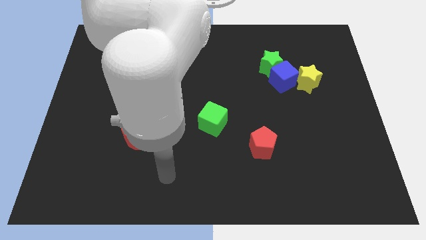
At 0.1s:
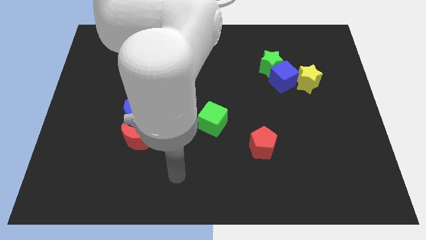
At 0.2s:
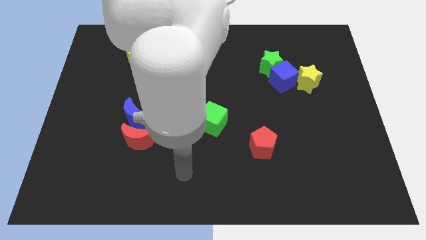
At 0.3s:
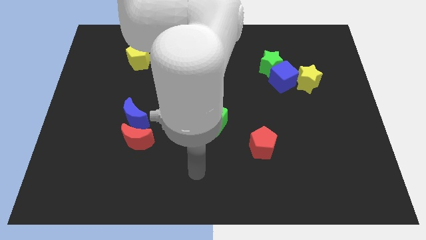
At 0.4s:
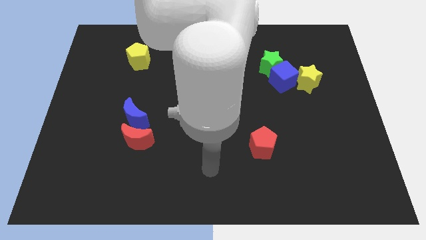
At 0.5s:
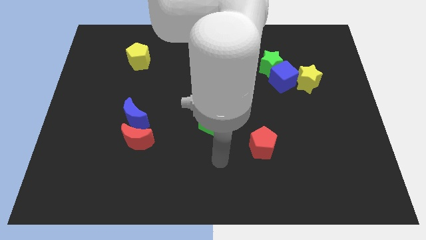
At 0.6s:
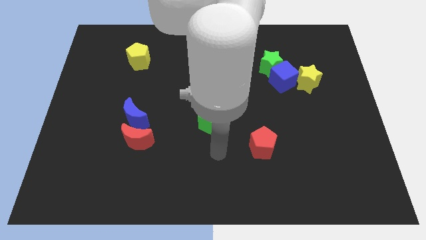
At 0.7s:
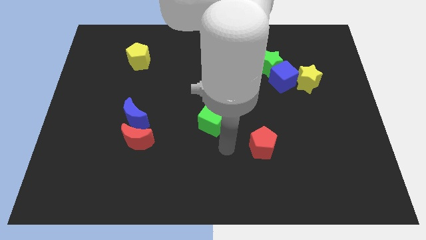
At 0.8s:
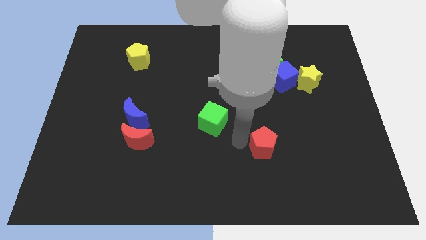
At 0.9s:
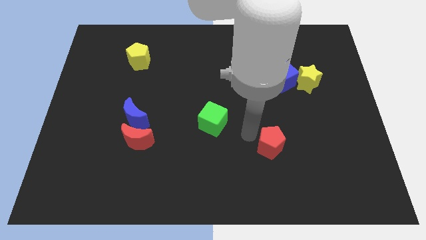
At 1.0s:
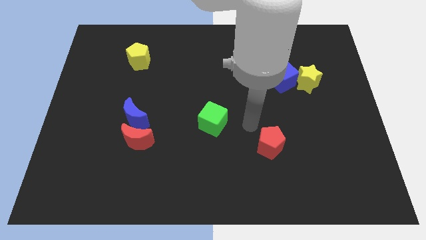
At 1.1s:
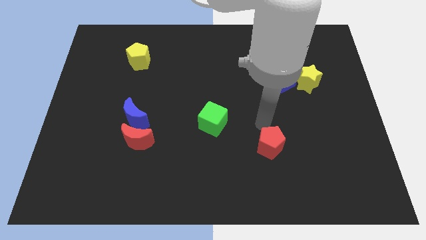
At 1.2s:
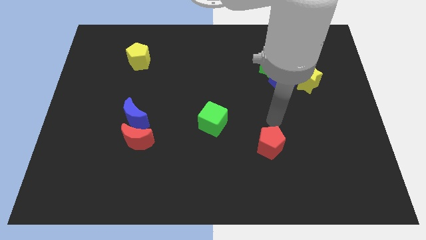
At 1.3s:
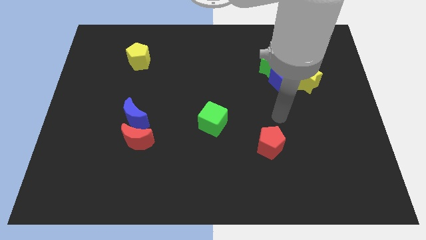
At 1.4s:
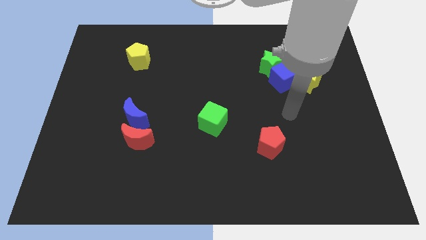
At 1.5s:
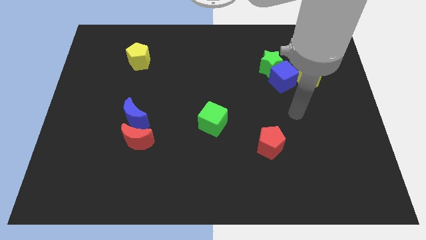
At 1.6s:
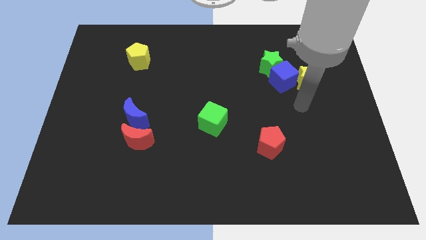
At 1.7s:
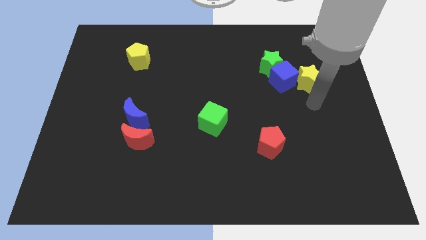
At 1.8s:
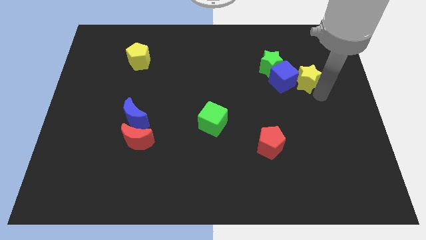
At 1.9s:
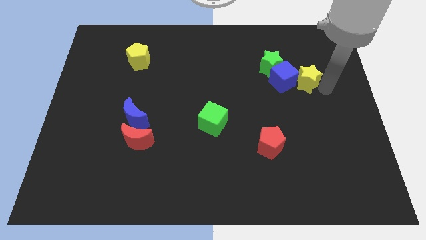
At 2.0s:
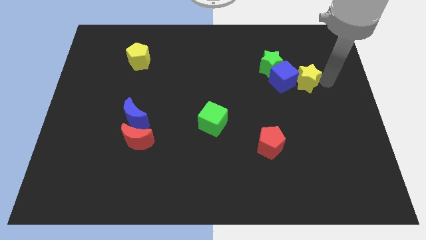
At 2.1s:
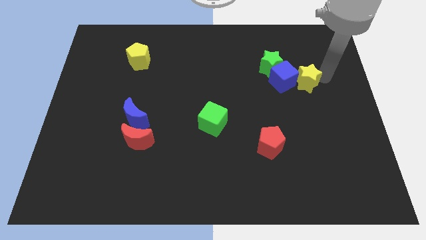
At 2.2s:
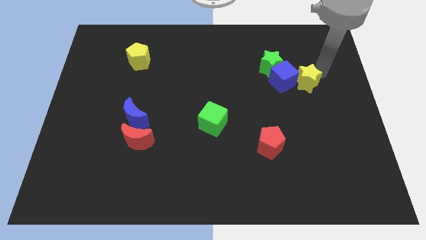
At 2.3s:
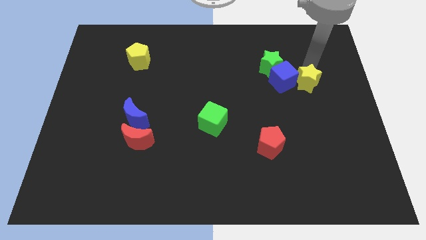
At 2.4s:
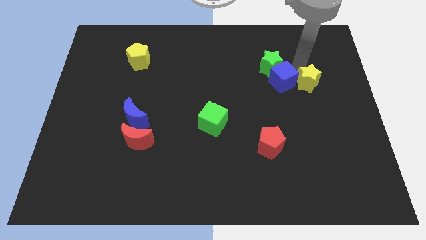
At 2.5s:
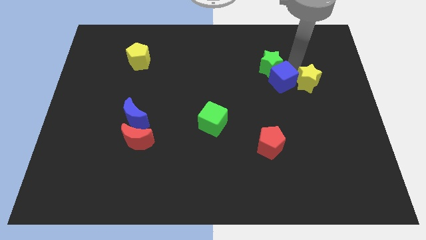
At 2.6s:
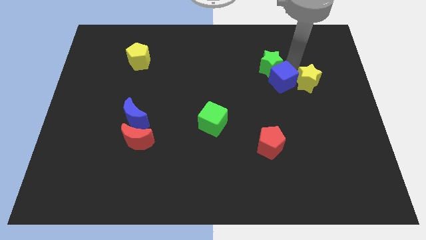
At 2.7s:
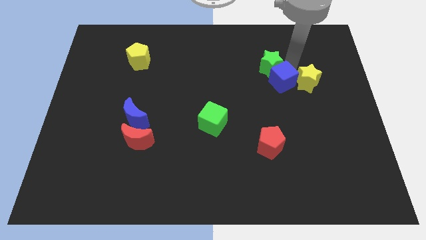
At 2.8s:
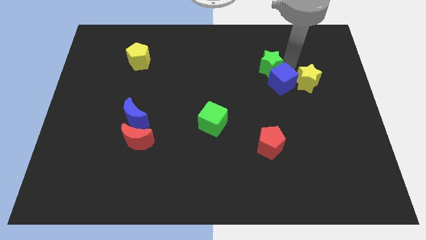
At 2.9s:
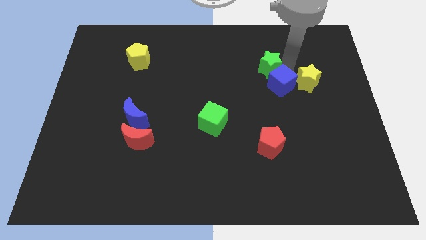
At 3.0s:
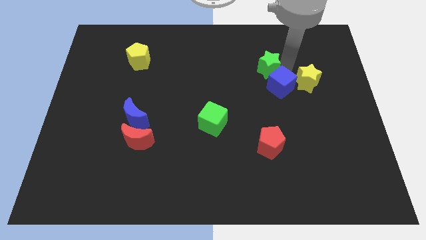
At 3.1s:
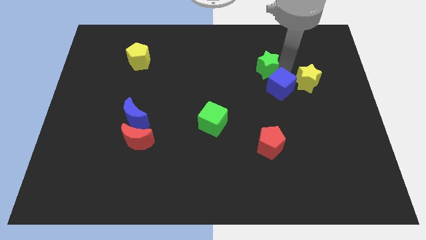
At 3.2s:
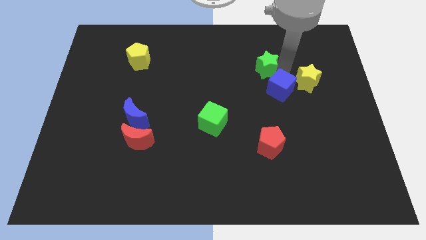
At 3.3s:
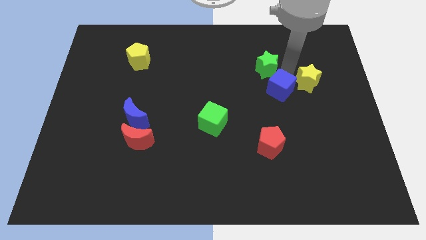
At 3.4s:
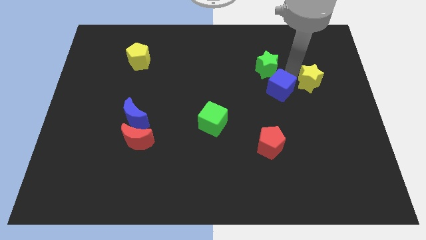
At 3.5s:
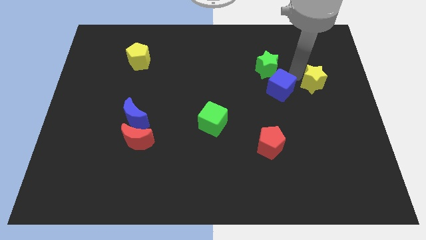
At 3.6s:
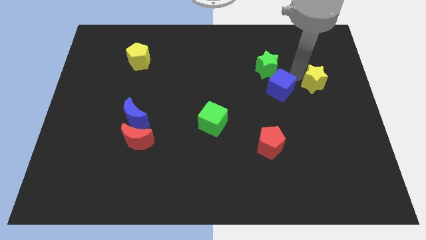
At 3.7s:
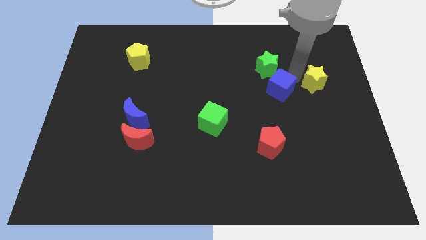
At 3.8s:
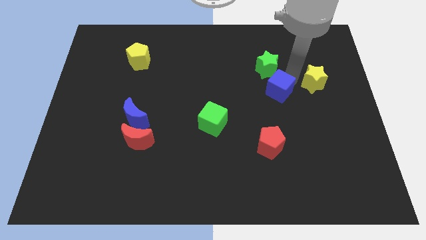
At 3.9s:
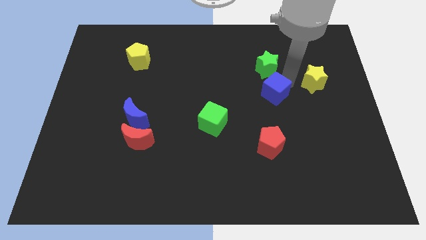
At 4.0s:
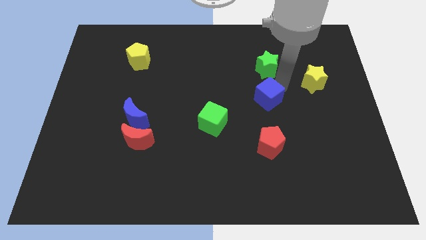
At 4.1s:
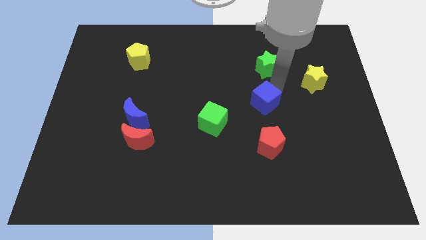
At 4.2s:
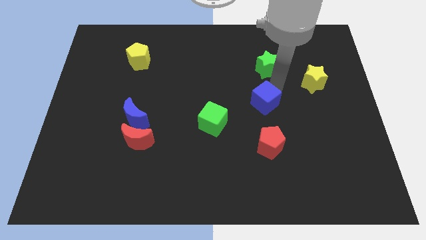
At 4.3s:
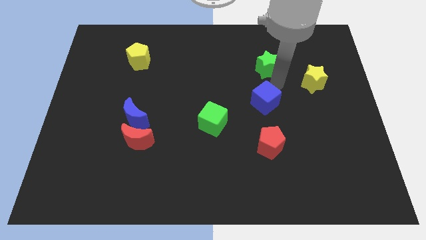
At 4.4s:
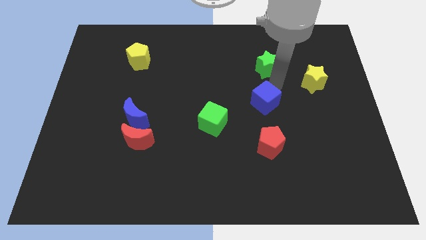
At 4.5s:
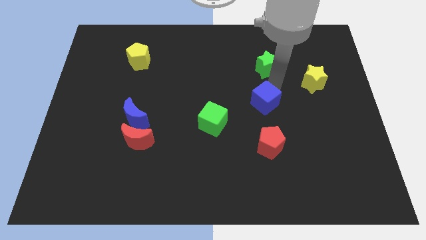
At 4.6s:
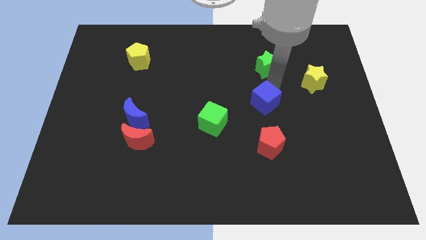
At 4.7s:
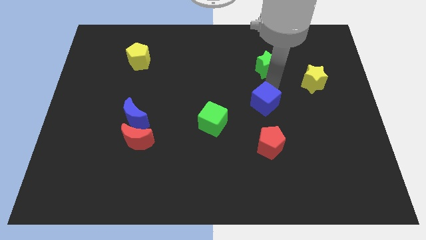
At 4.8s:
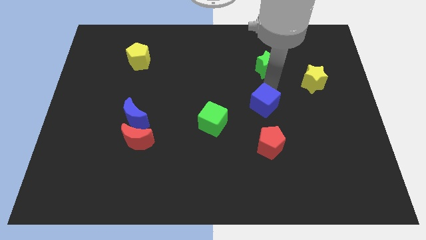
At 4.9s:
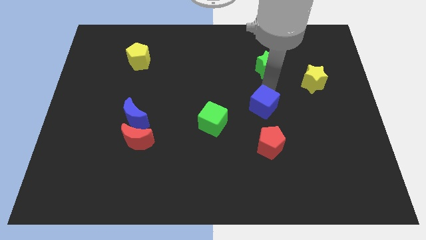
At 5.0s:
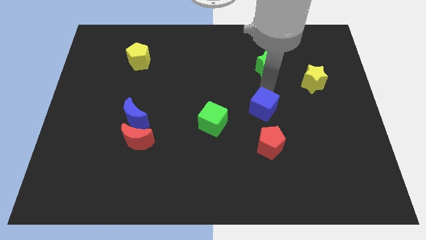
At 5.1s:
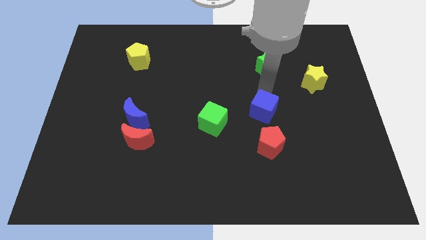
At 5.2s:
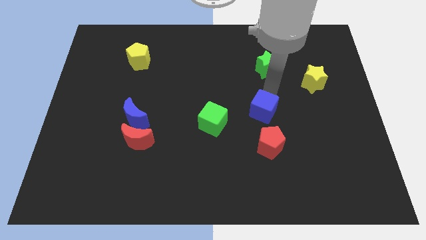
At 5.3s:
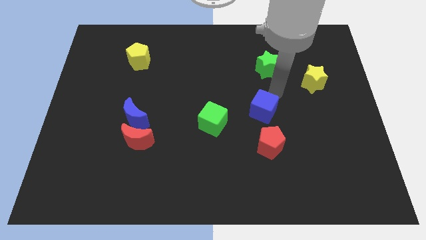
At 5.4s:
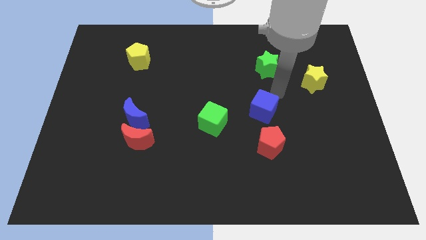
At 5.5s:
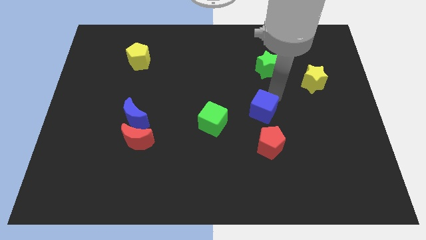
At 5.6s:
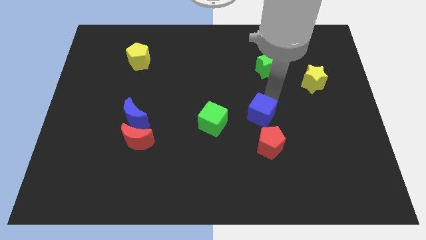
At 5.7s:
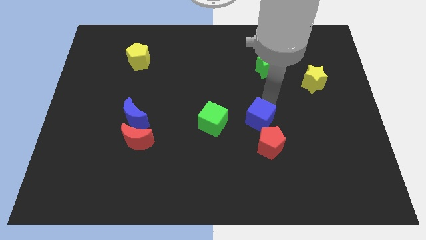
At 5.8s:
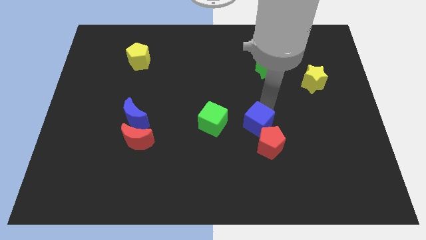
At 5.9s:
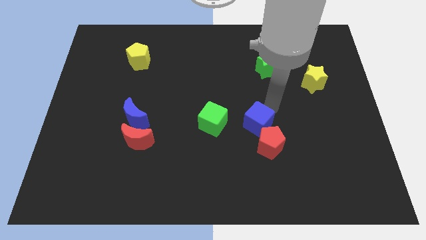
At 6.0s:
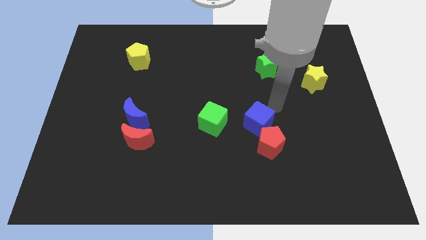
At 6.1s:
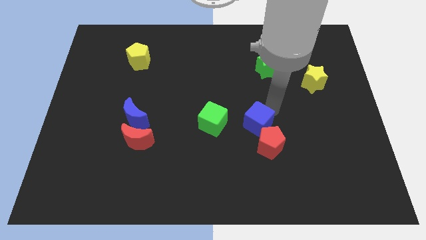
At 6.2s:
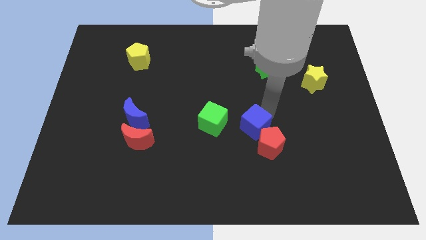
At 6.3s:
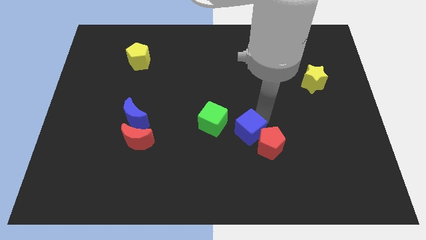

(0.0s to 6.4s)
slide the blue cube to the bottom right of the green cube
